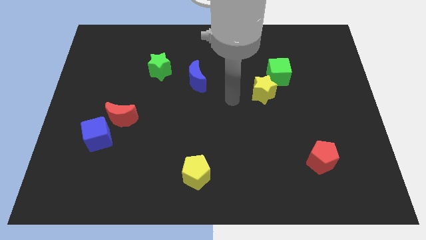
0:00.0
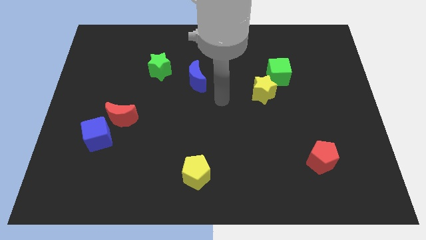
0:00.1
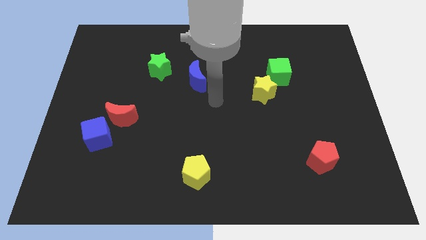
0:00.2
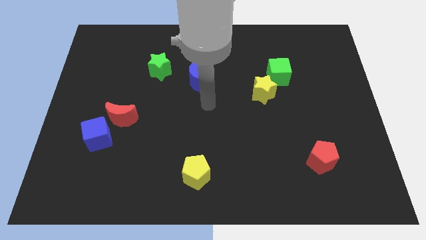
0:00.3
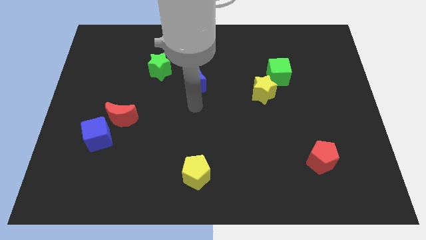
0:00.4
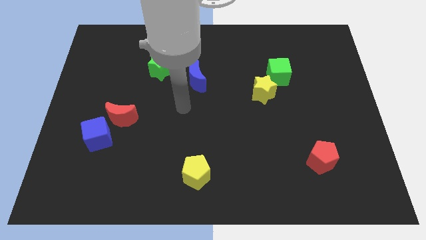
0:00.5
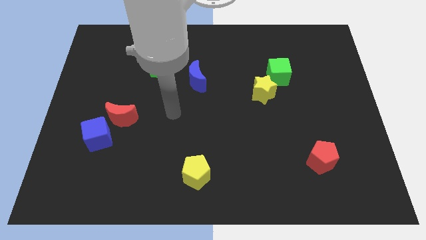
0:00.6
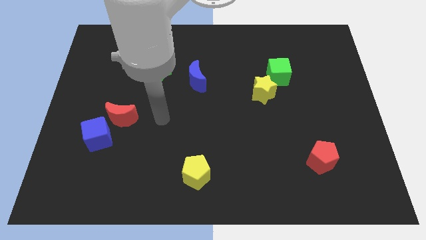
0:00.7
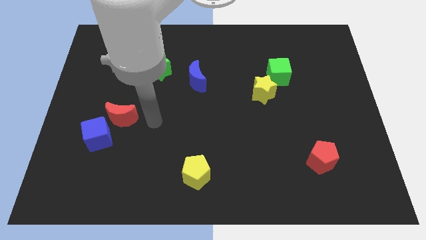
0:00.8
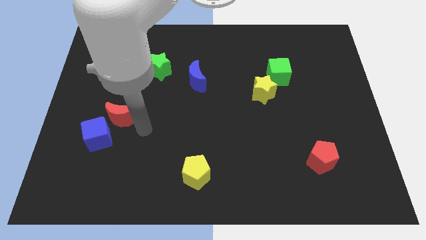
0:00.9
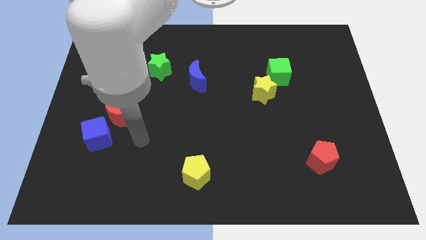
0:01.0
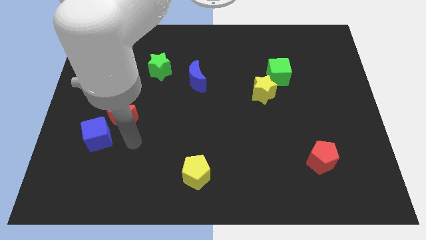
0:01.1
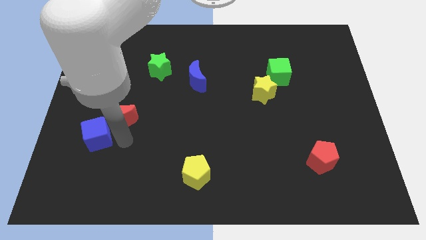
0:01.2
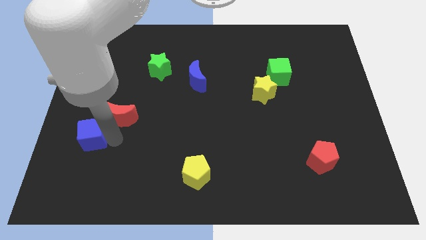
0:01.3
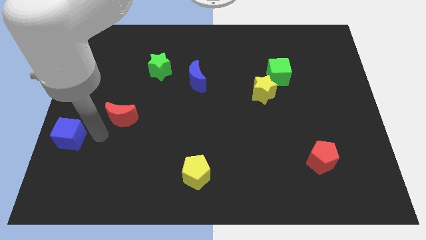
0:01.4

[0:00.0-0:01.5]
move the red moon away from the blue cube

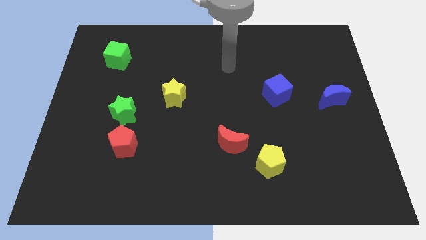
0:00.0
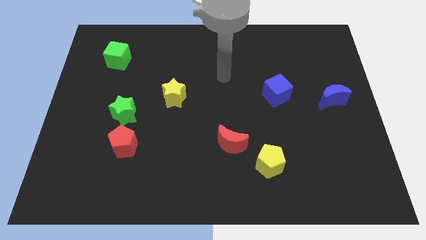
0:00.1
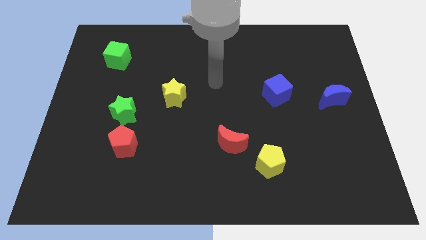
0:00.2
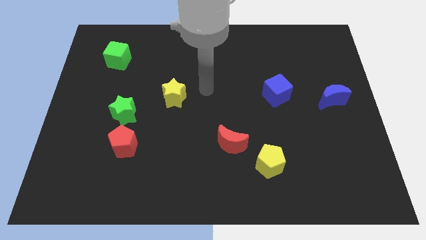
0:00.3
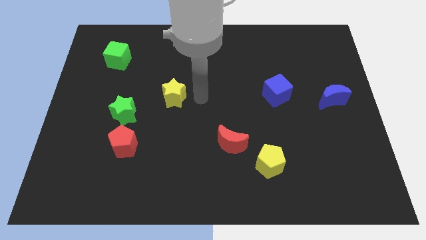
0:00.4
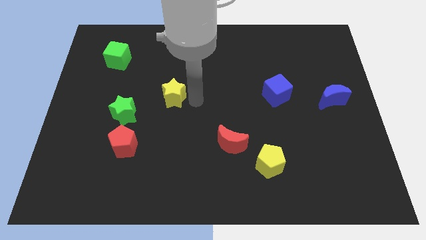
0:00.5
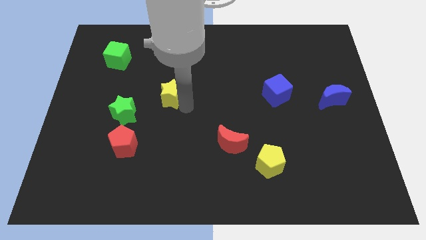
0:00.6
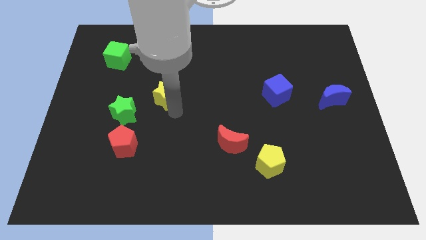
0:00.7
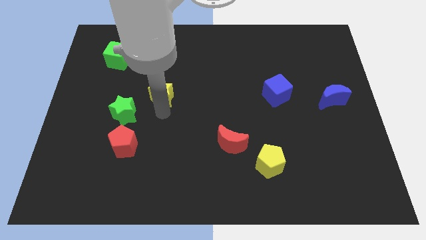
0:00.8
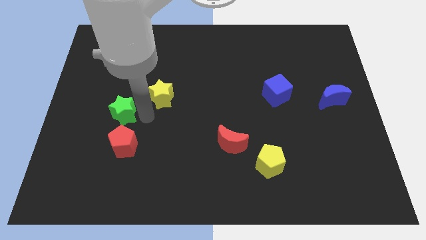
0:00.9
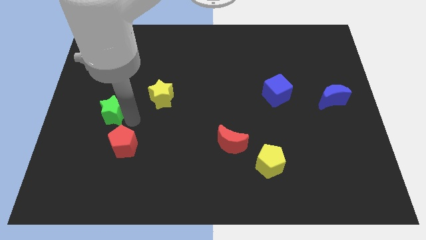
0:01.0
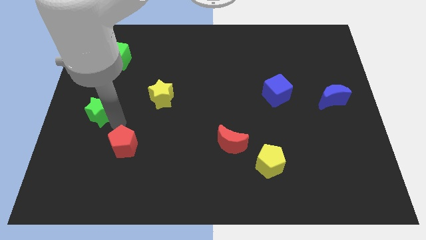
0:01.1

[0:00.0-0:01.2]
move the red pentagon away from the green star

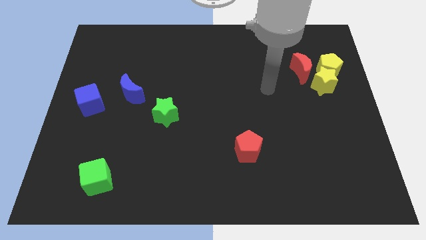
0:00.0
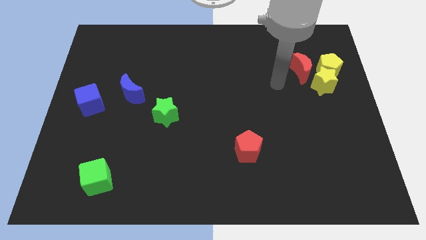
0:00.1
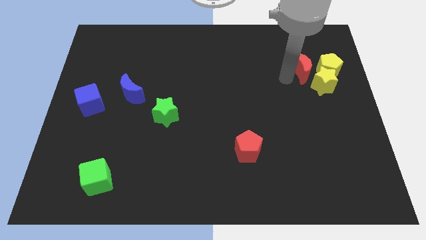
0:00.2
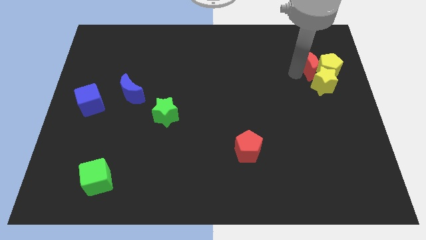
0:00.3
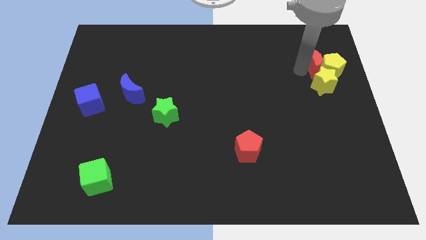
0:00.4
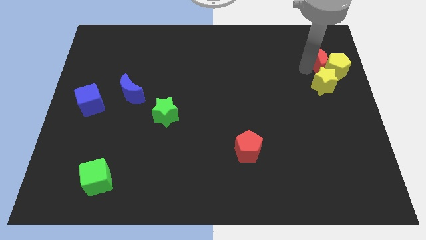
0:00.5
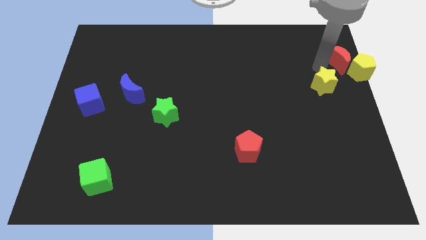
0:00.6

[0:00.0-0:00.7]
move the yellow star away from the yellow pentagon and red moon

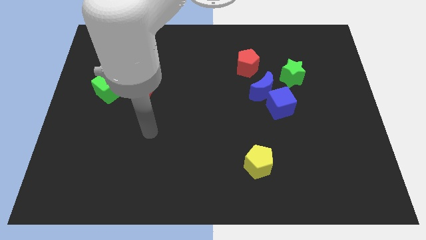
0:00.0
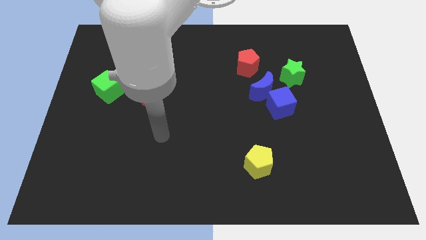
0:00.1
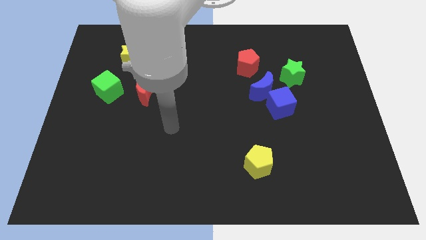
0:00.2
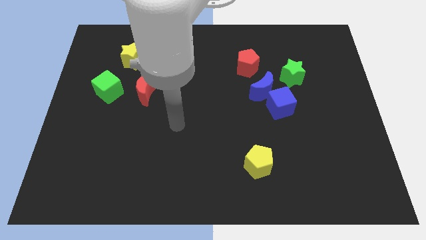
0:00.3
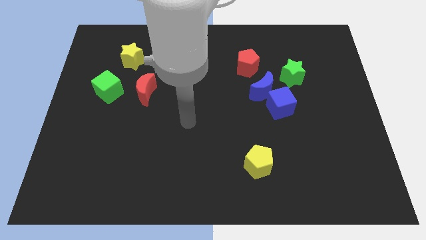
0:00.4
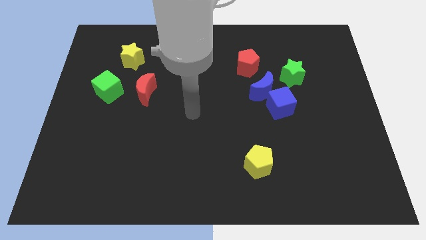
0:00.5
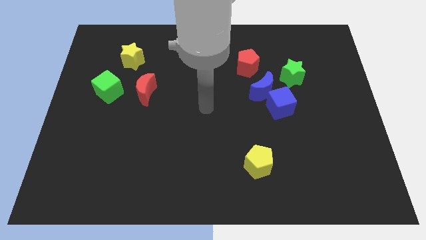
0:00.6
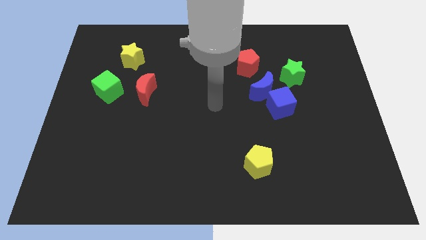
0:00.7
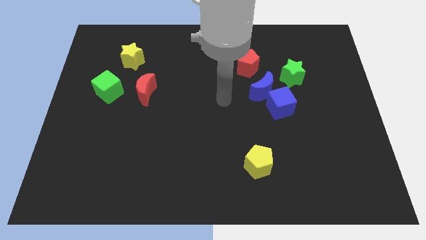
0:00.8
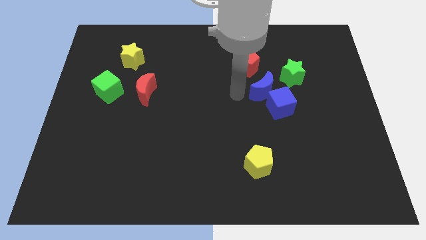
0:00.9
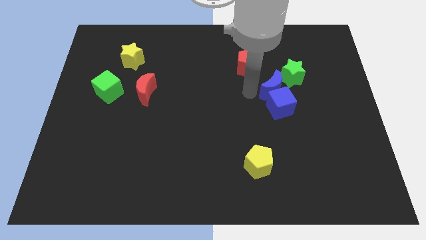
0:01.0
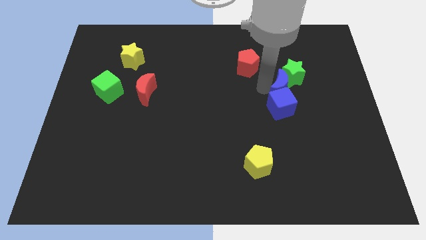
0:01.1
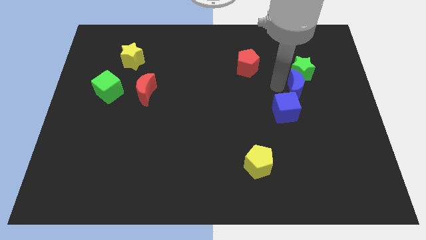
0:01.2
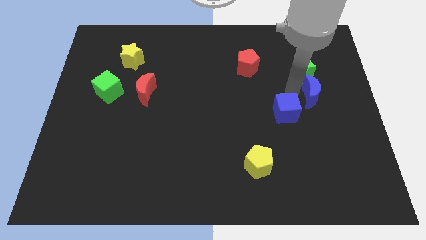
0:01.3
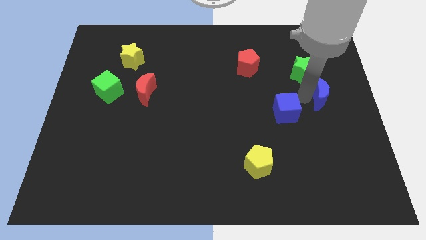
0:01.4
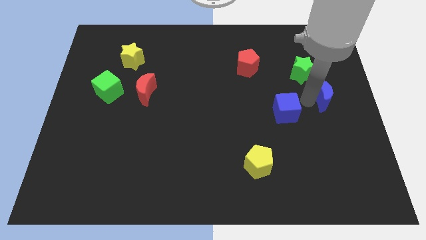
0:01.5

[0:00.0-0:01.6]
move the blue cube away from the blue moon

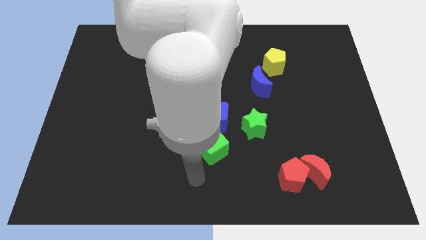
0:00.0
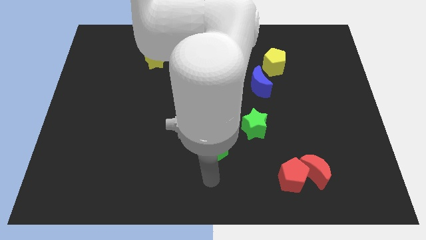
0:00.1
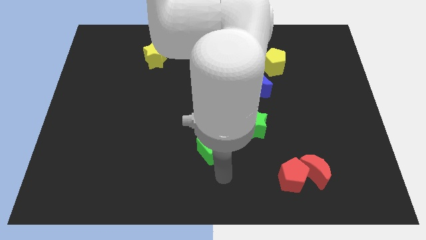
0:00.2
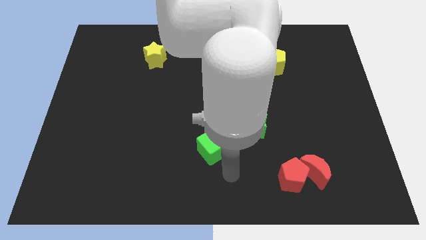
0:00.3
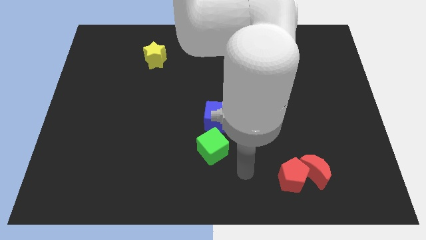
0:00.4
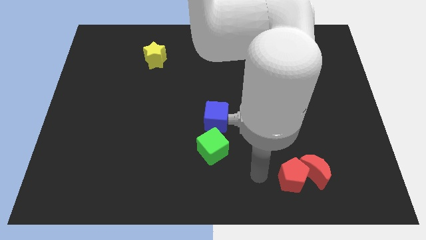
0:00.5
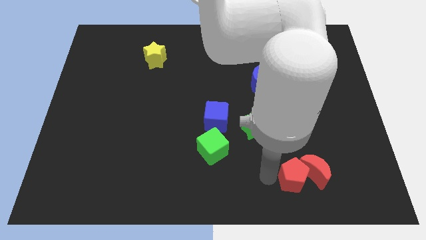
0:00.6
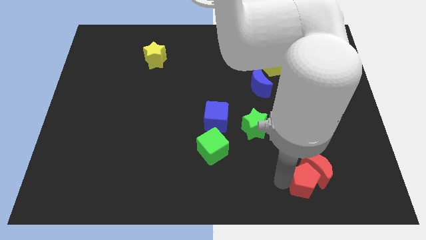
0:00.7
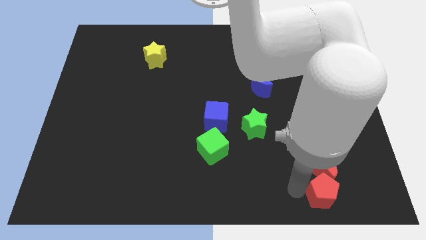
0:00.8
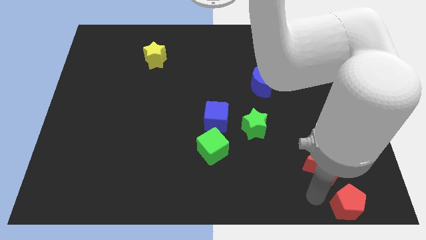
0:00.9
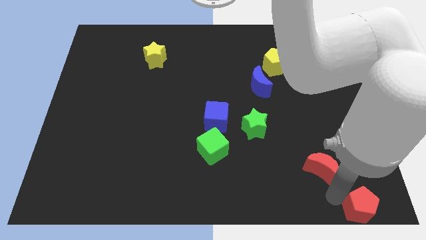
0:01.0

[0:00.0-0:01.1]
pull the red moon apart from the red pentagon

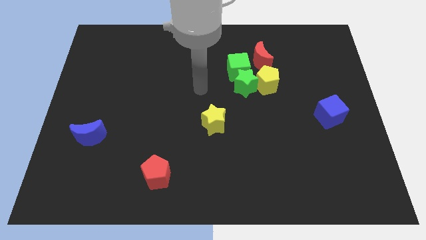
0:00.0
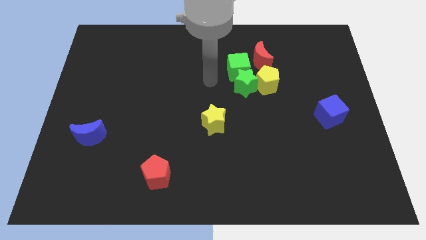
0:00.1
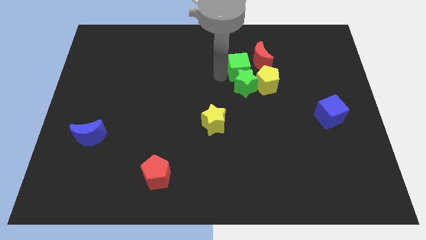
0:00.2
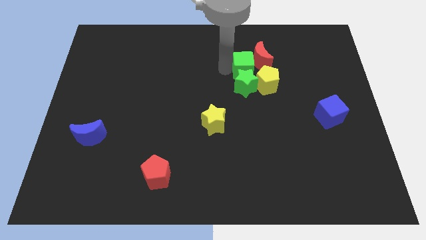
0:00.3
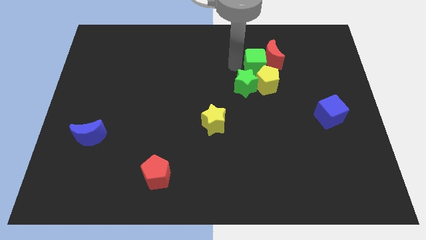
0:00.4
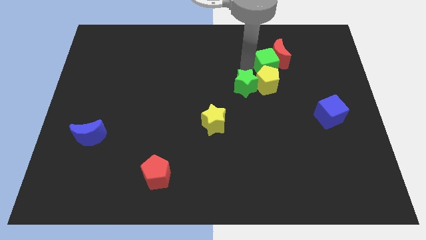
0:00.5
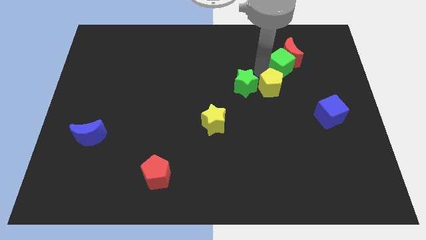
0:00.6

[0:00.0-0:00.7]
pull the green star apart from the green cube, yellow pentagon, and red moon

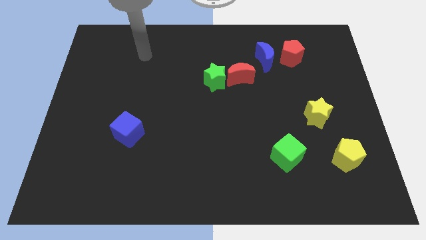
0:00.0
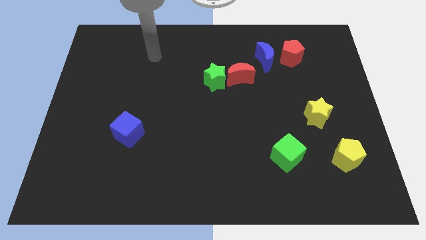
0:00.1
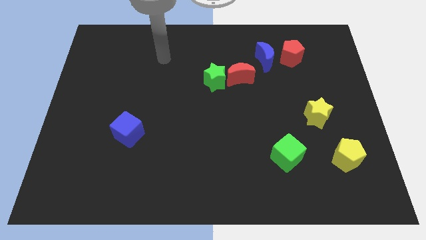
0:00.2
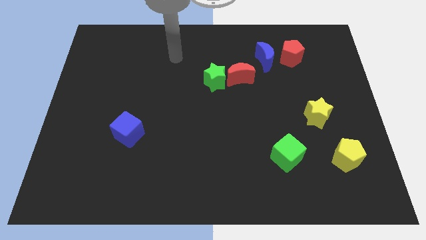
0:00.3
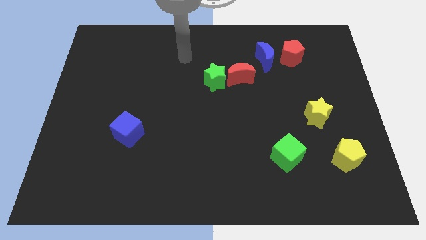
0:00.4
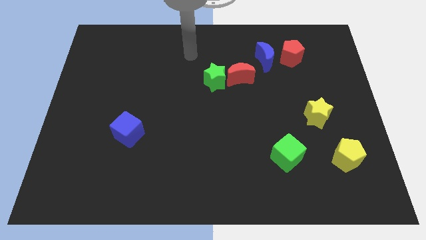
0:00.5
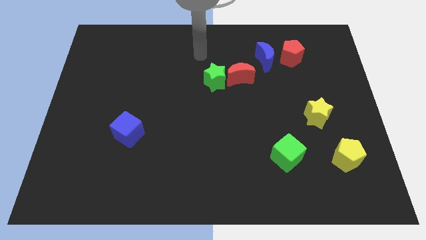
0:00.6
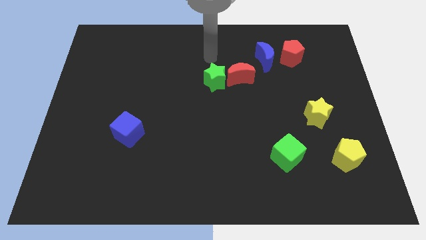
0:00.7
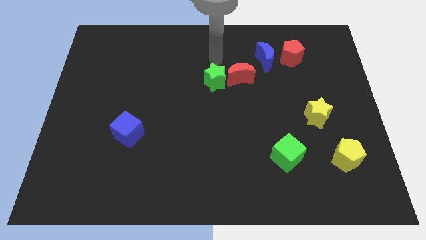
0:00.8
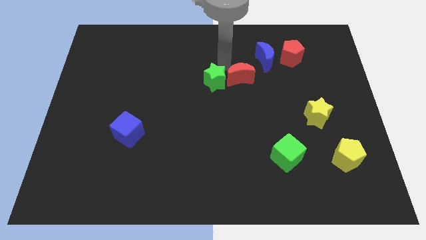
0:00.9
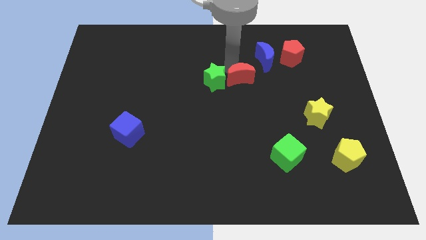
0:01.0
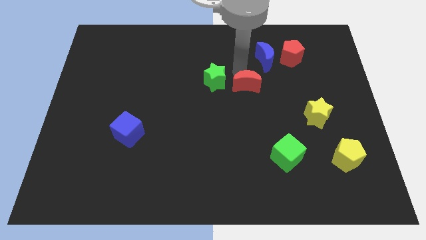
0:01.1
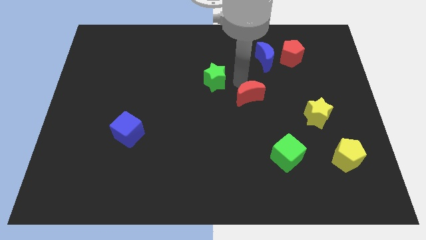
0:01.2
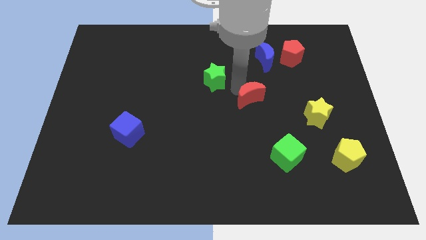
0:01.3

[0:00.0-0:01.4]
separate the green star from the red moon

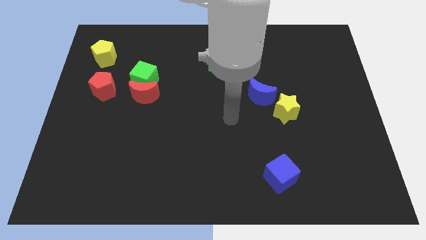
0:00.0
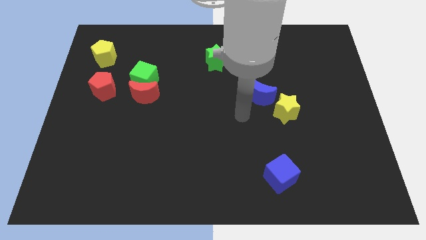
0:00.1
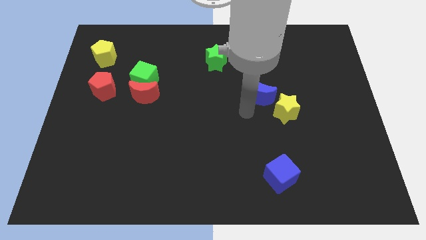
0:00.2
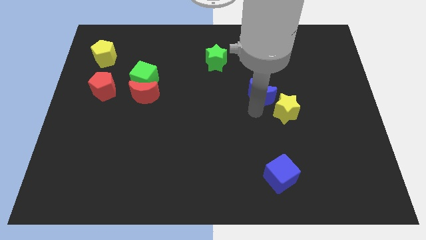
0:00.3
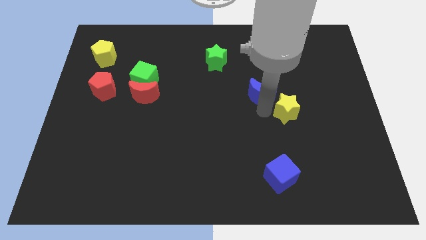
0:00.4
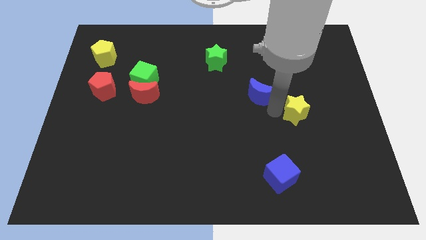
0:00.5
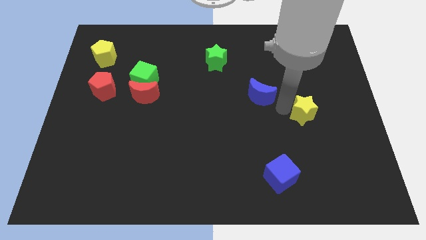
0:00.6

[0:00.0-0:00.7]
pull the blue moon apart from the yellow star

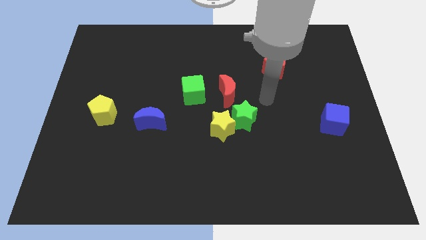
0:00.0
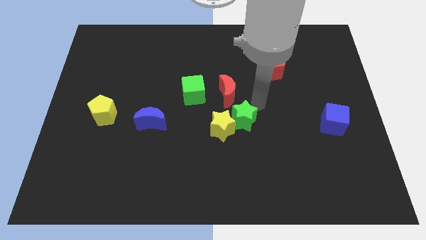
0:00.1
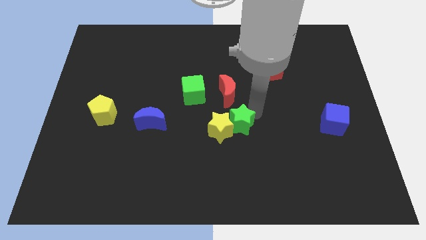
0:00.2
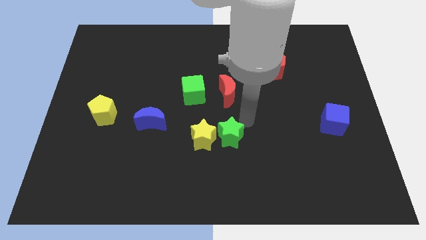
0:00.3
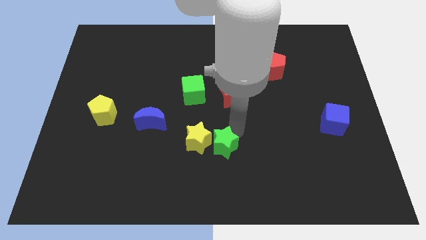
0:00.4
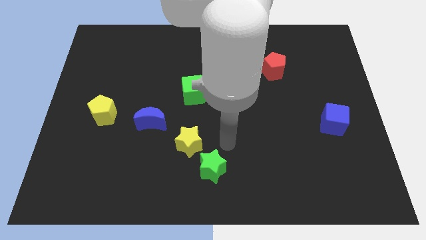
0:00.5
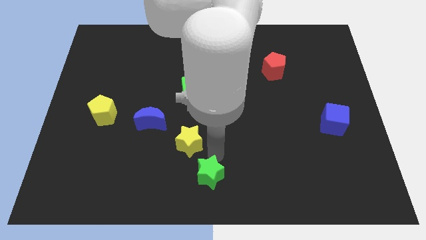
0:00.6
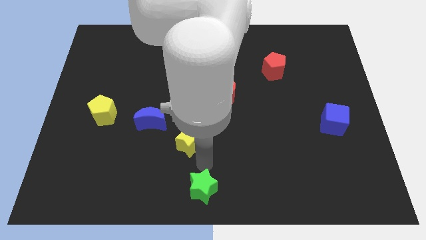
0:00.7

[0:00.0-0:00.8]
pull the yellow star apart from the green star
